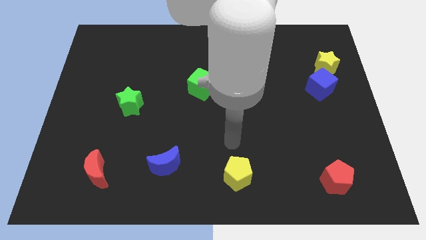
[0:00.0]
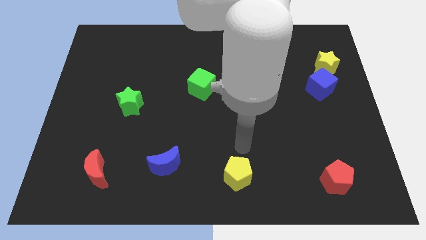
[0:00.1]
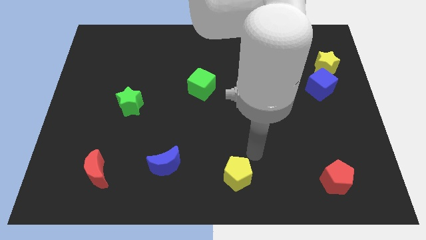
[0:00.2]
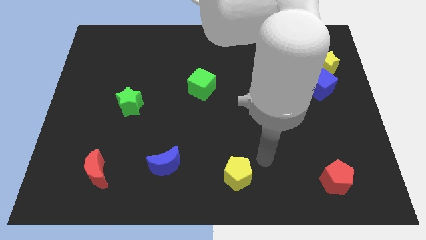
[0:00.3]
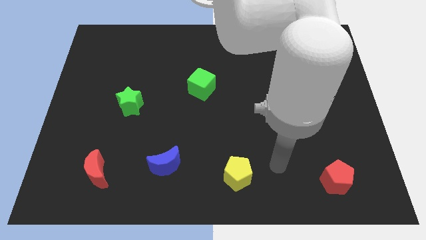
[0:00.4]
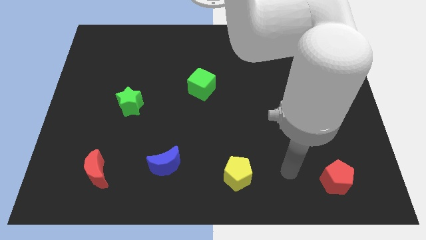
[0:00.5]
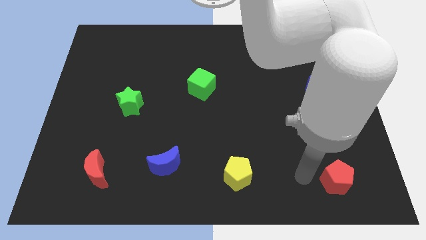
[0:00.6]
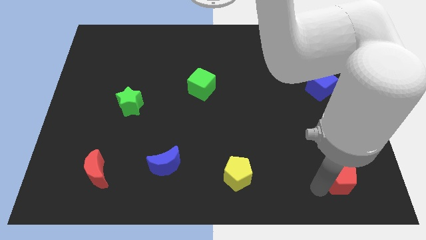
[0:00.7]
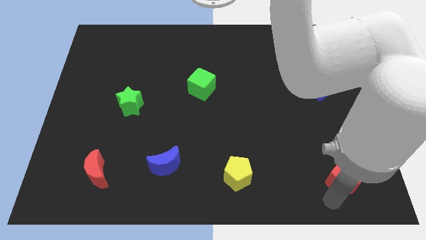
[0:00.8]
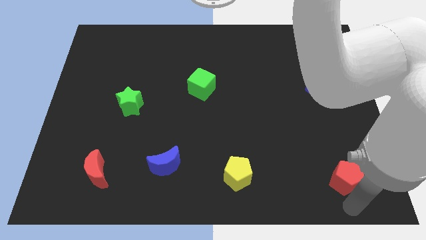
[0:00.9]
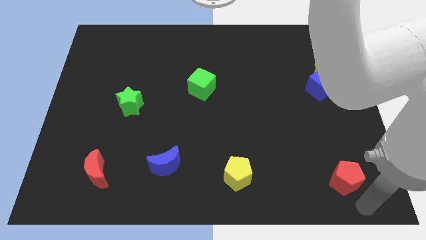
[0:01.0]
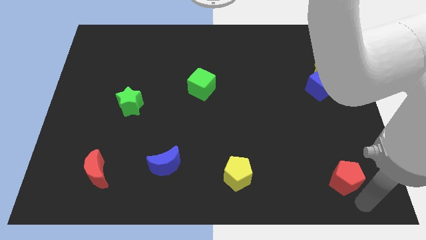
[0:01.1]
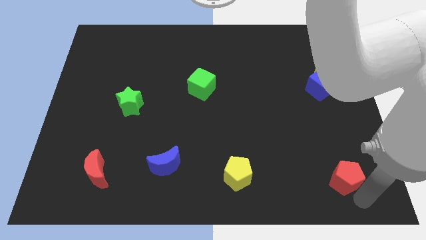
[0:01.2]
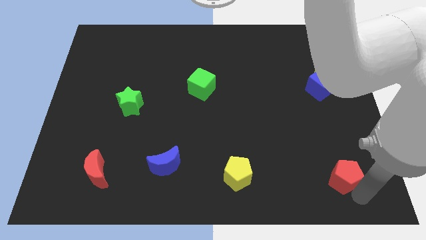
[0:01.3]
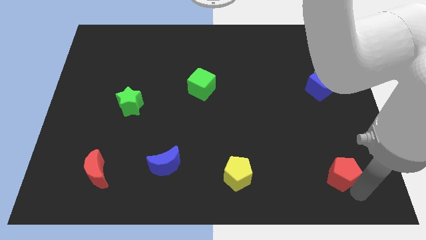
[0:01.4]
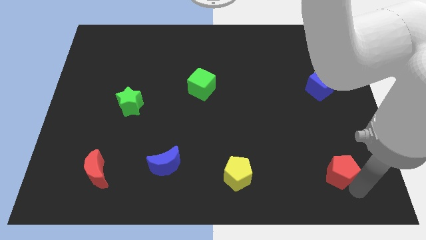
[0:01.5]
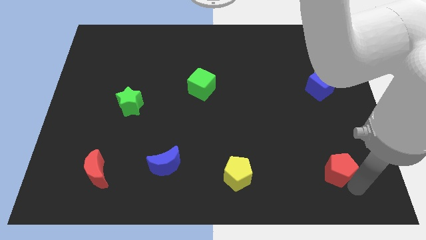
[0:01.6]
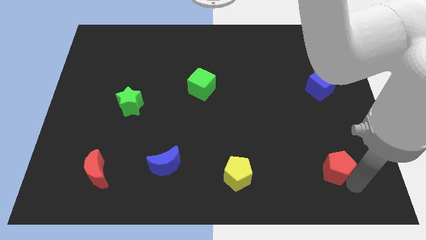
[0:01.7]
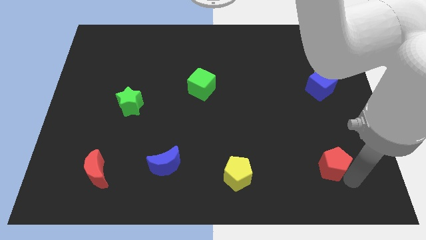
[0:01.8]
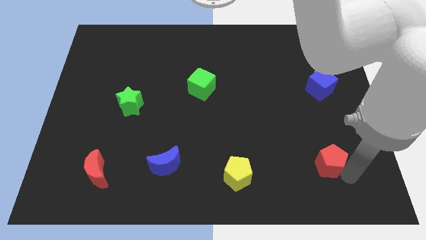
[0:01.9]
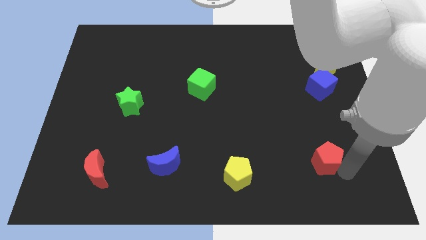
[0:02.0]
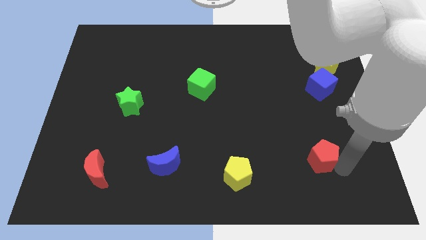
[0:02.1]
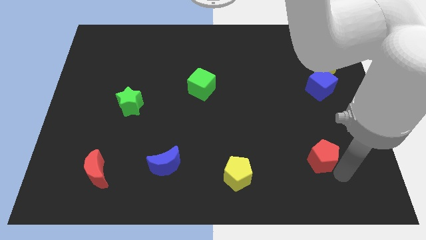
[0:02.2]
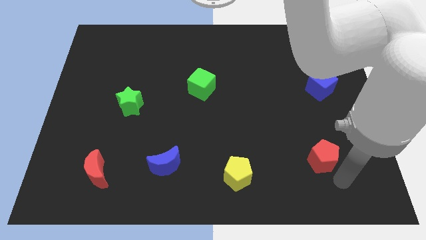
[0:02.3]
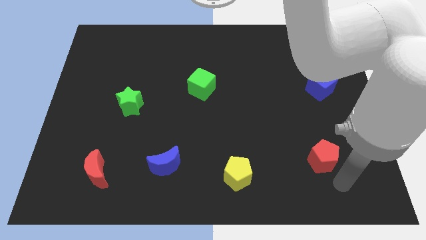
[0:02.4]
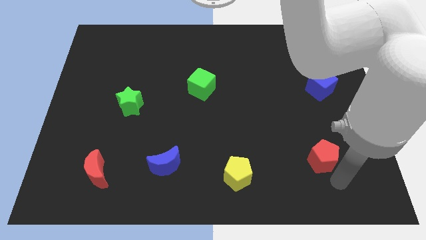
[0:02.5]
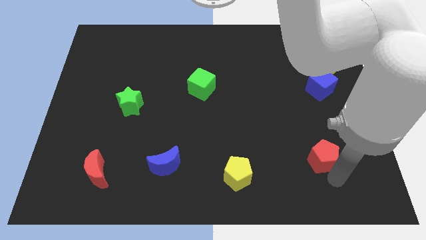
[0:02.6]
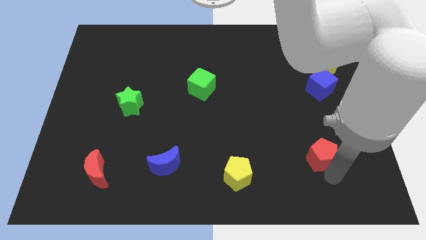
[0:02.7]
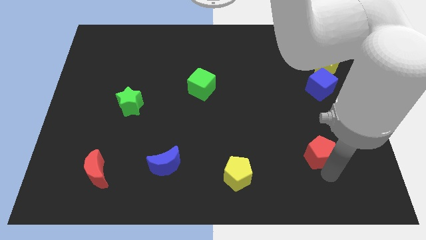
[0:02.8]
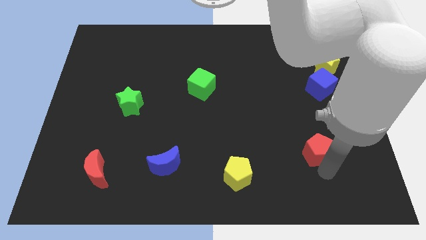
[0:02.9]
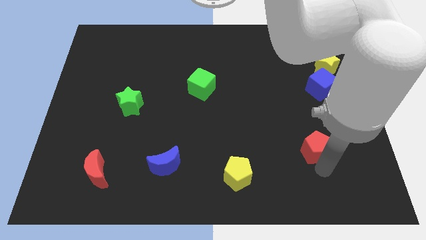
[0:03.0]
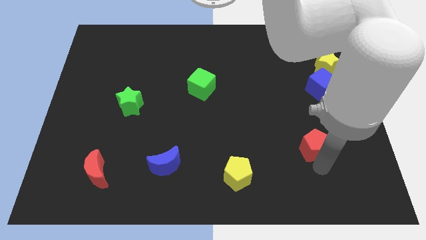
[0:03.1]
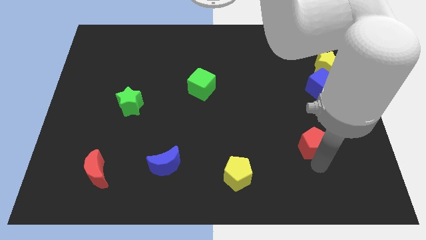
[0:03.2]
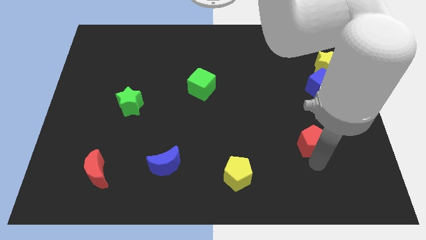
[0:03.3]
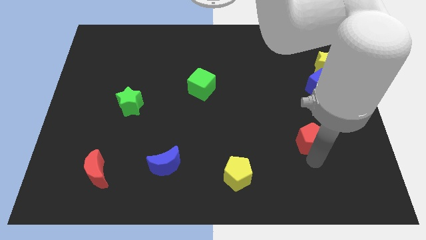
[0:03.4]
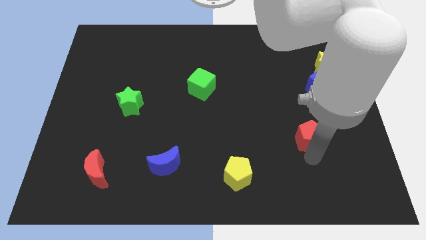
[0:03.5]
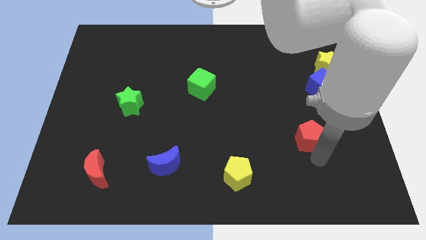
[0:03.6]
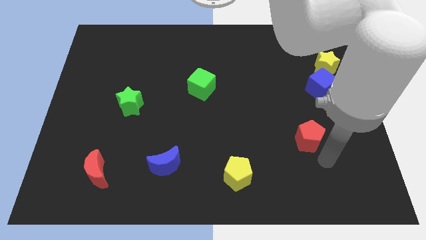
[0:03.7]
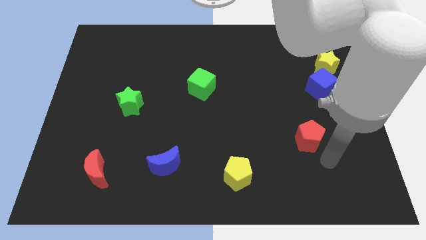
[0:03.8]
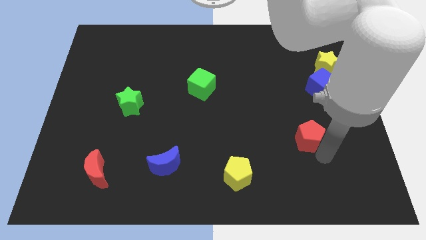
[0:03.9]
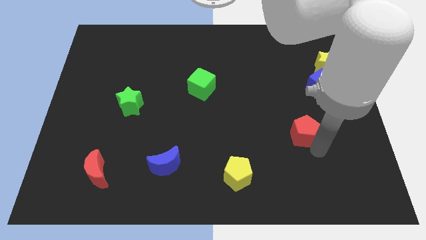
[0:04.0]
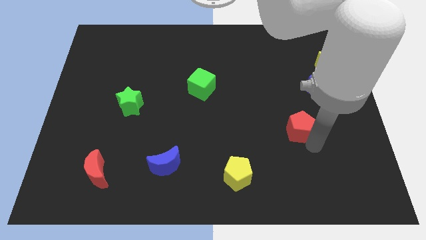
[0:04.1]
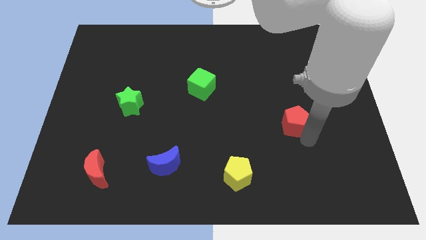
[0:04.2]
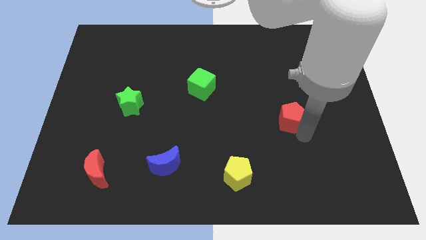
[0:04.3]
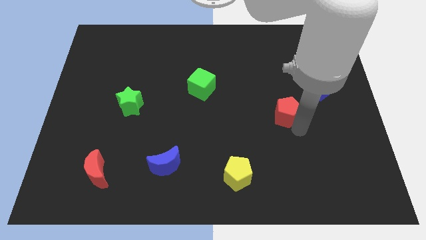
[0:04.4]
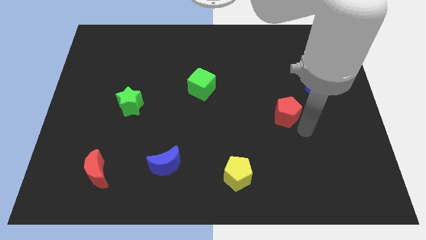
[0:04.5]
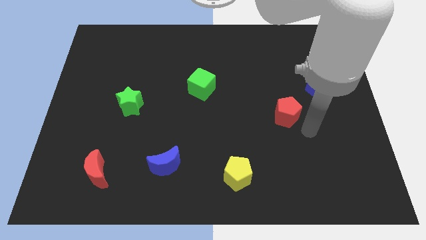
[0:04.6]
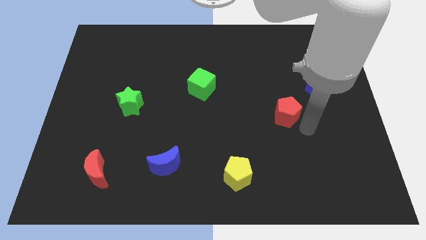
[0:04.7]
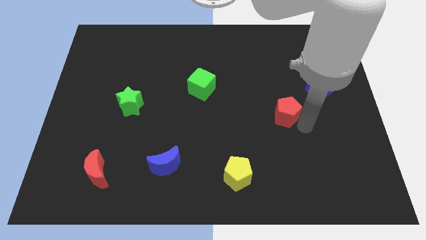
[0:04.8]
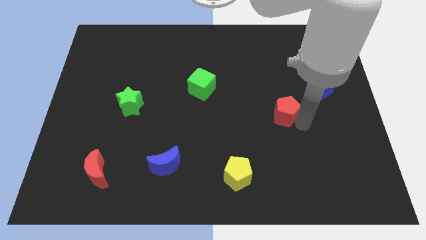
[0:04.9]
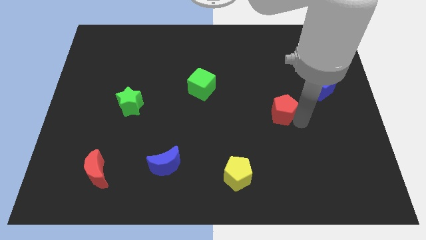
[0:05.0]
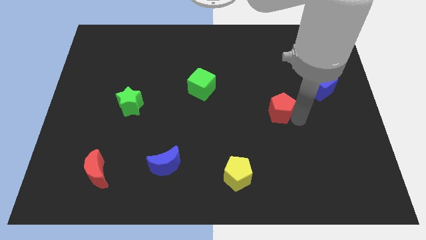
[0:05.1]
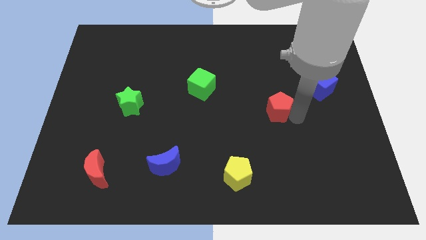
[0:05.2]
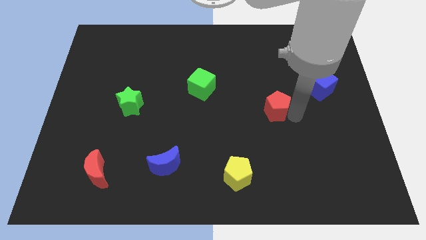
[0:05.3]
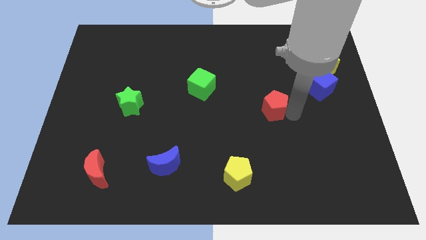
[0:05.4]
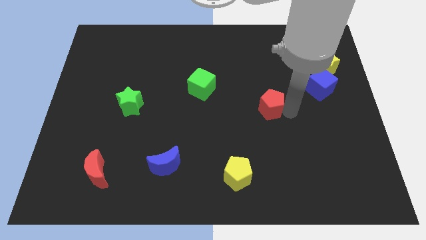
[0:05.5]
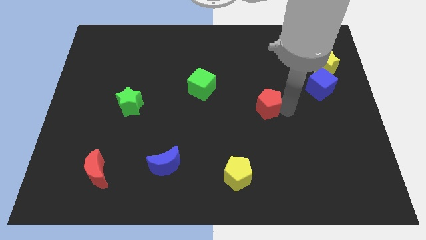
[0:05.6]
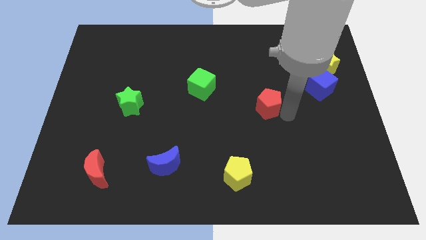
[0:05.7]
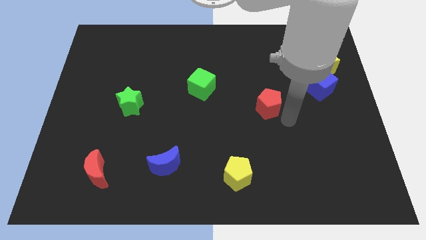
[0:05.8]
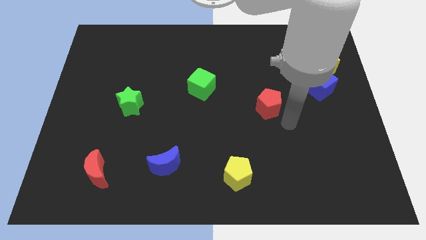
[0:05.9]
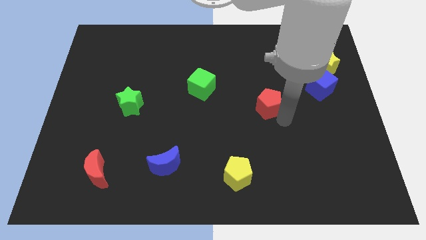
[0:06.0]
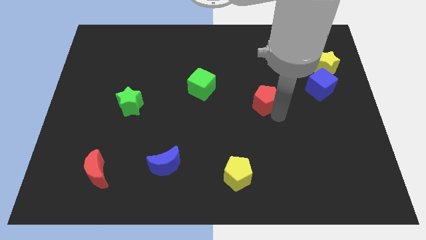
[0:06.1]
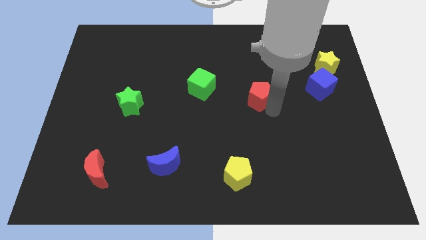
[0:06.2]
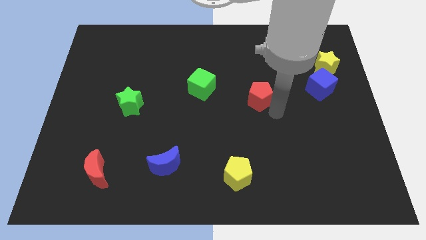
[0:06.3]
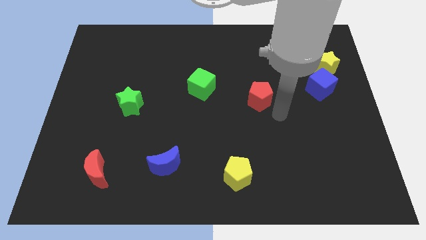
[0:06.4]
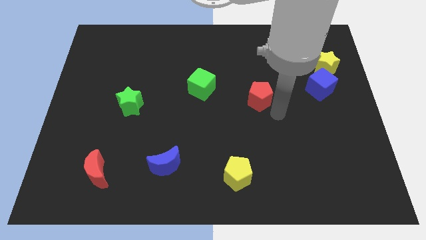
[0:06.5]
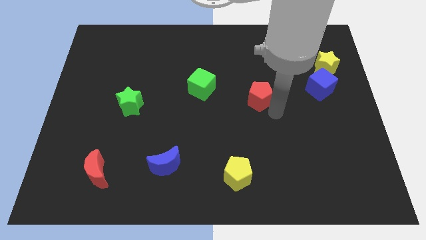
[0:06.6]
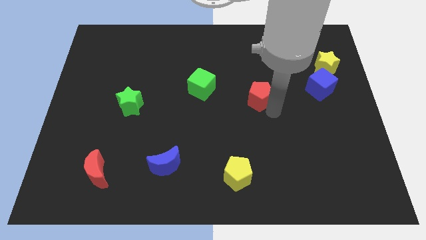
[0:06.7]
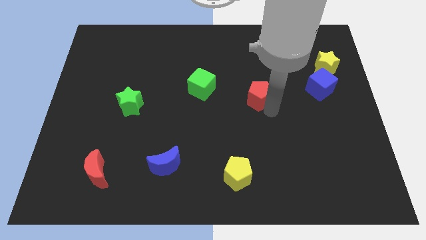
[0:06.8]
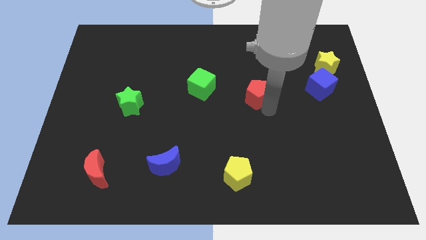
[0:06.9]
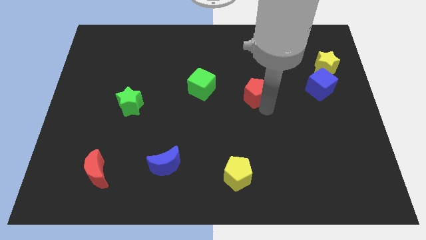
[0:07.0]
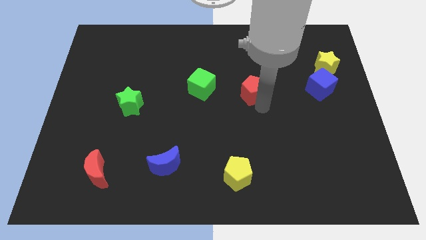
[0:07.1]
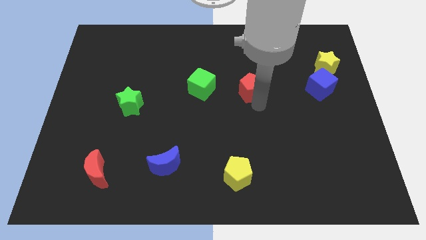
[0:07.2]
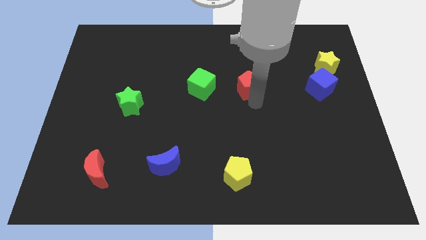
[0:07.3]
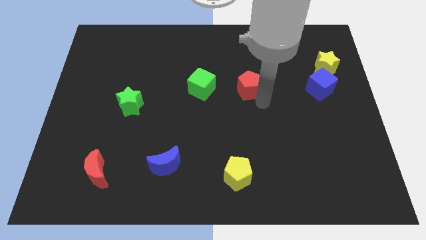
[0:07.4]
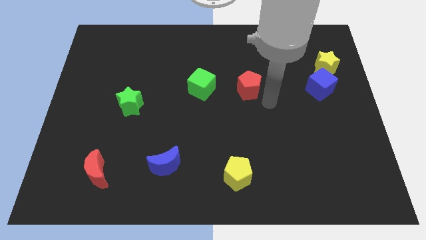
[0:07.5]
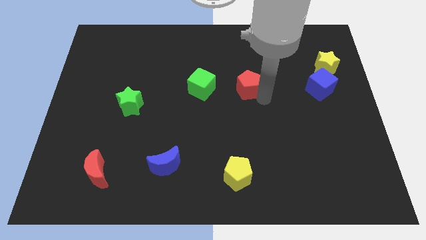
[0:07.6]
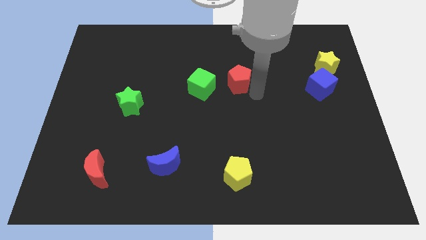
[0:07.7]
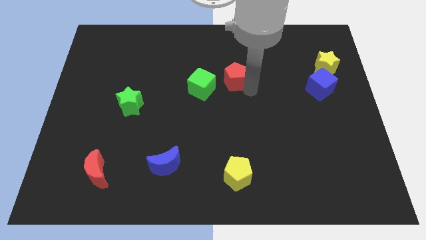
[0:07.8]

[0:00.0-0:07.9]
put the red pentagon to the top right of the green cube
